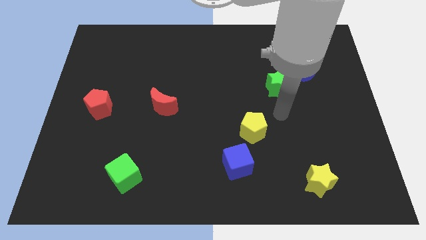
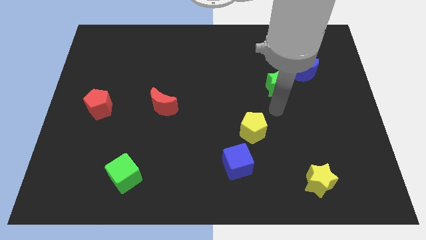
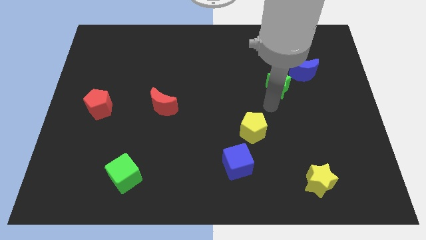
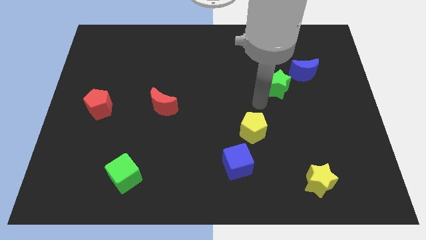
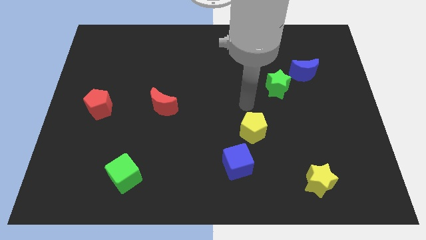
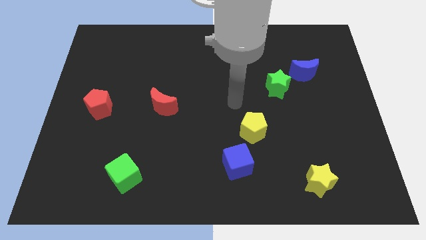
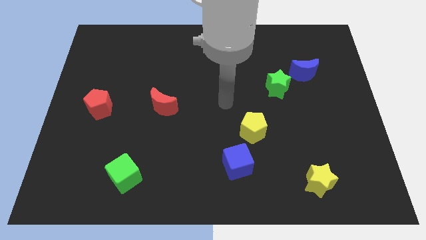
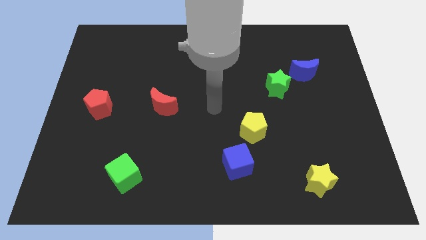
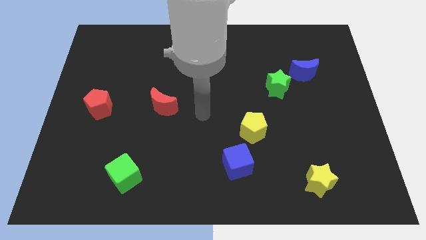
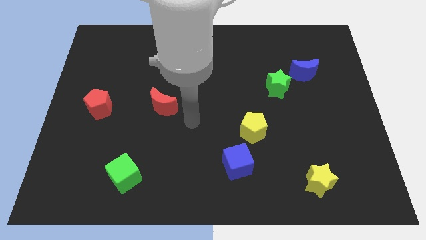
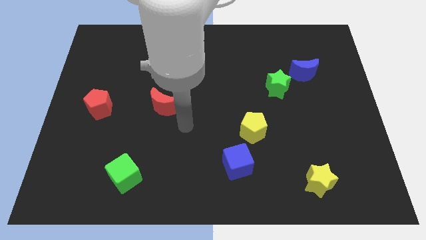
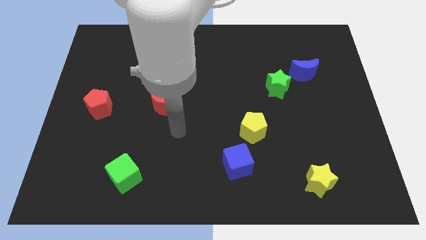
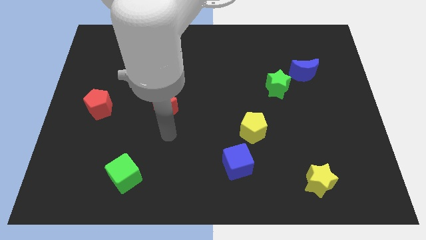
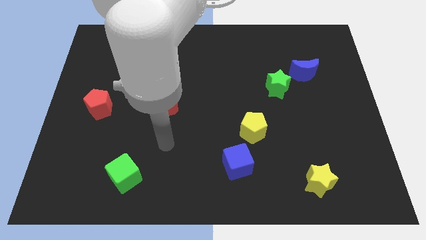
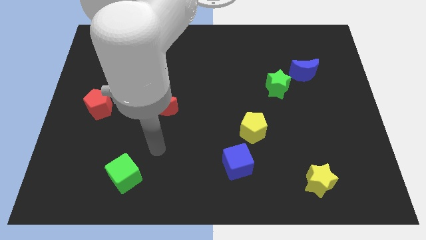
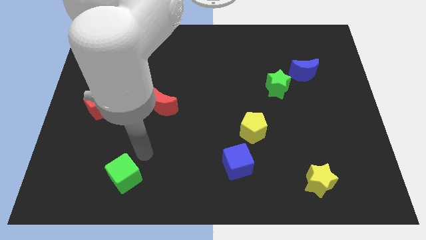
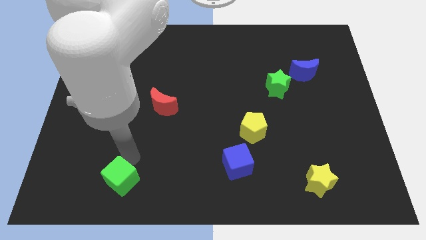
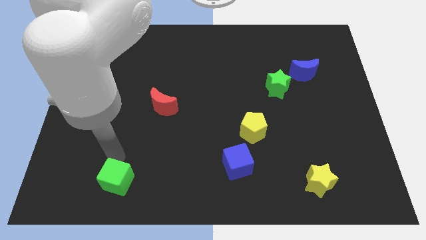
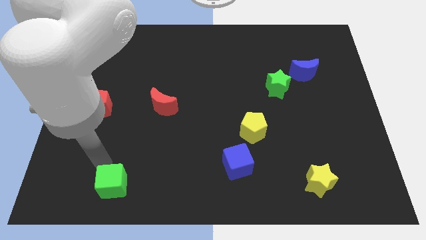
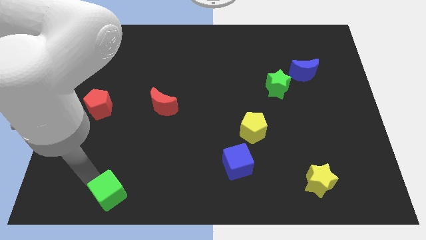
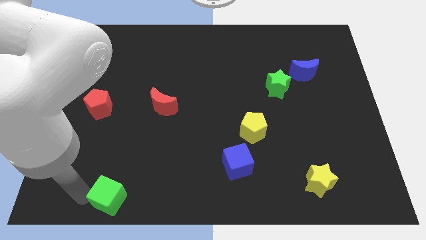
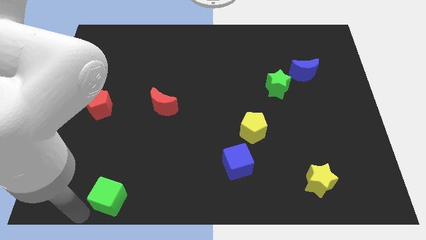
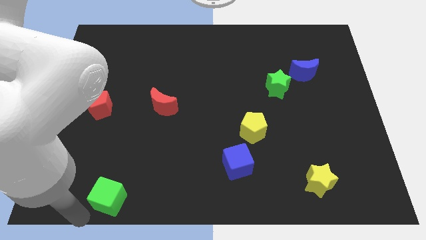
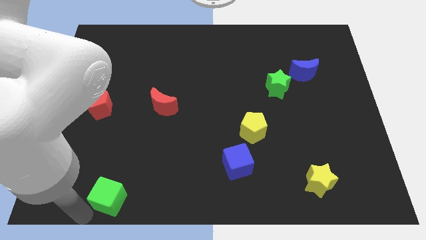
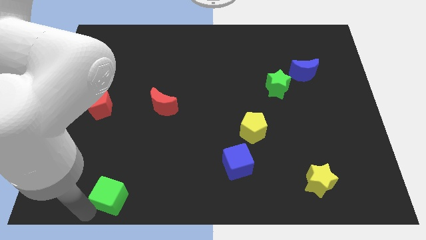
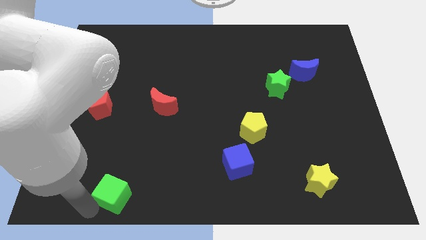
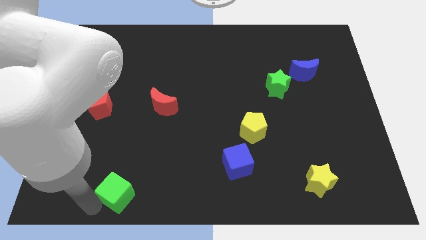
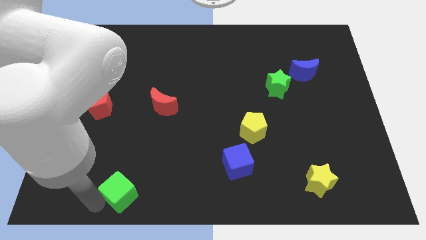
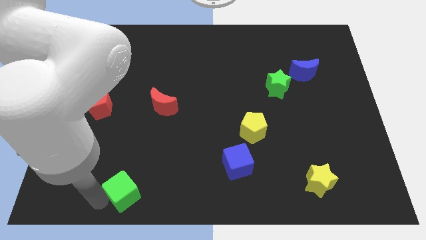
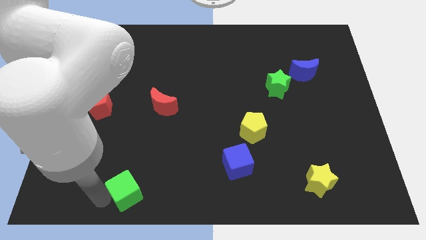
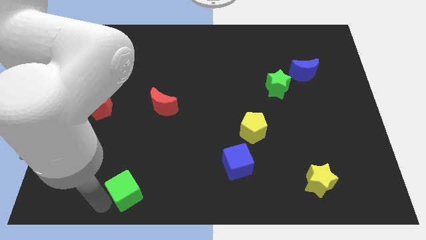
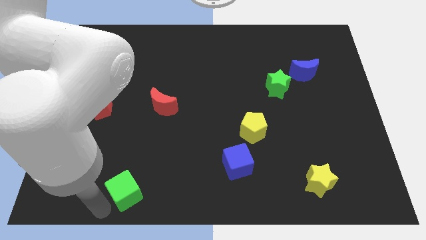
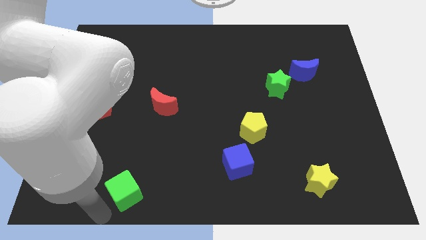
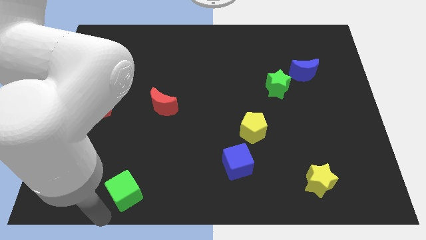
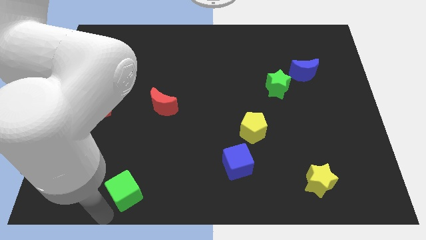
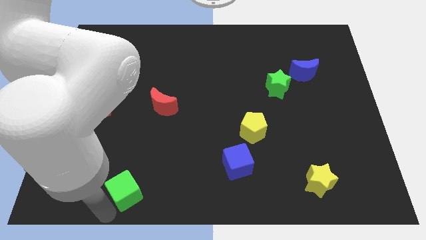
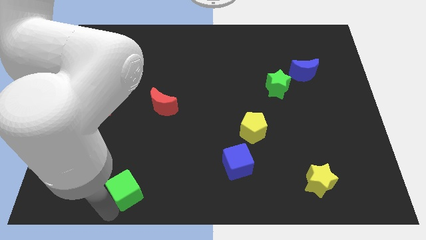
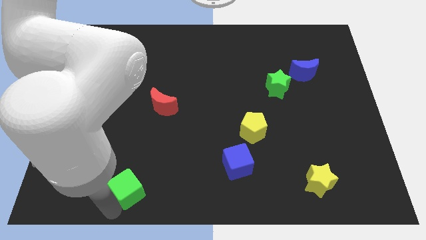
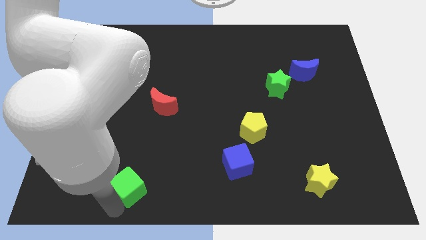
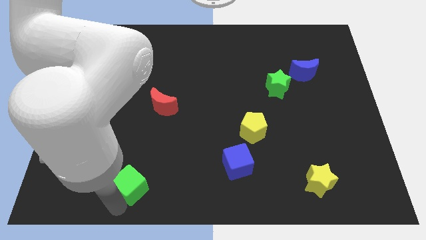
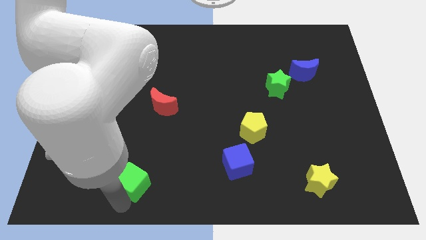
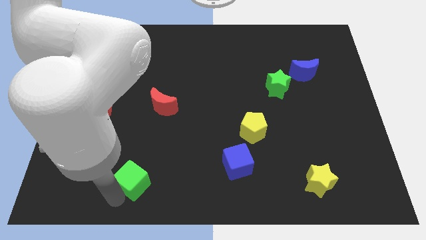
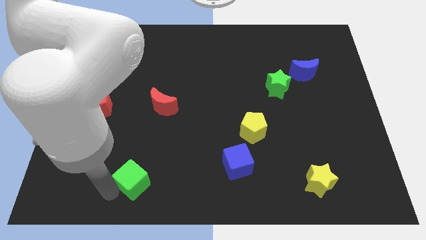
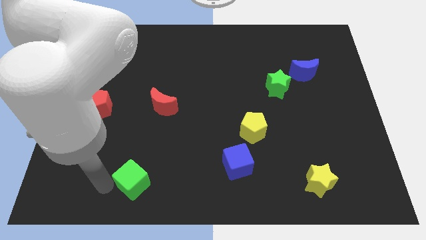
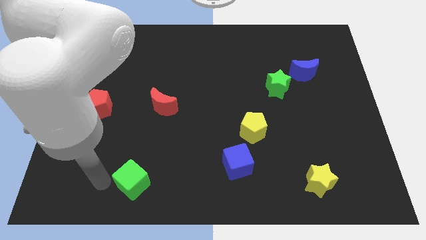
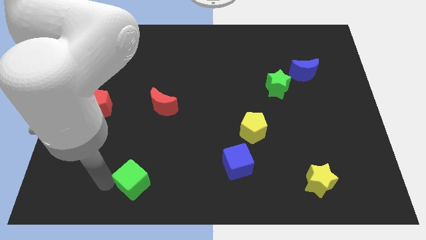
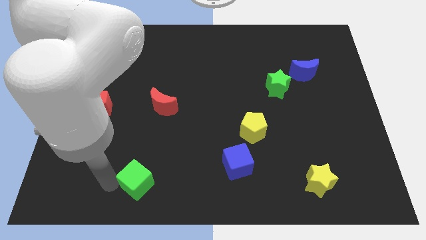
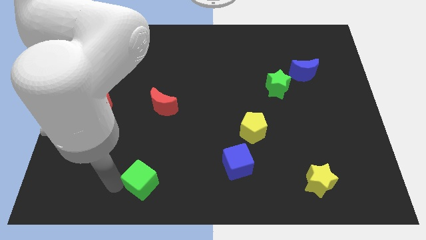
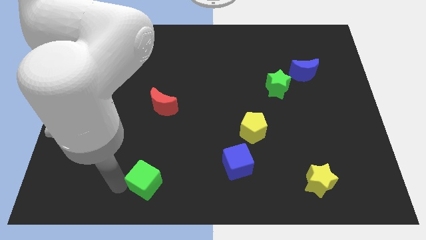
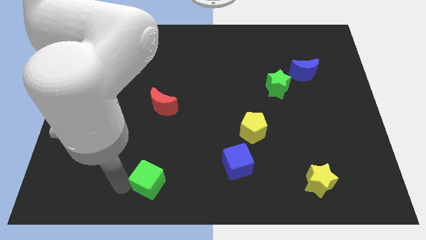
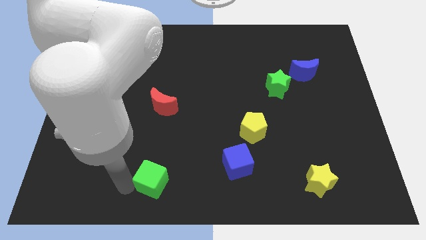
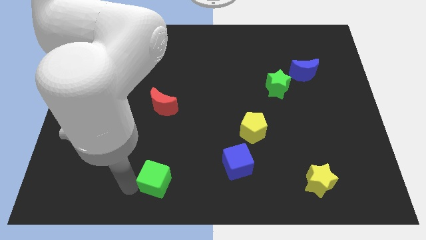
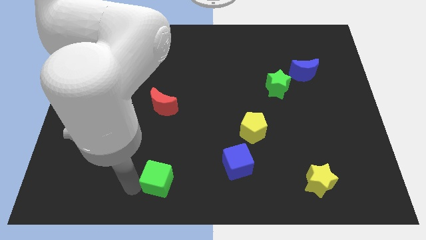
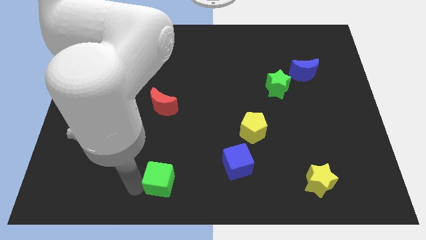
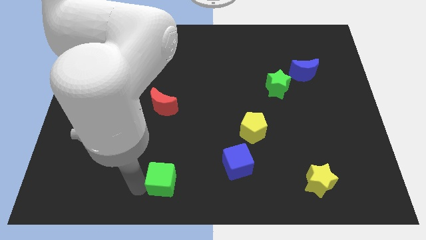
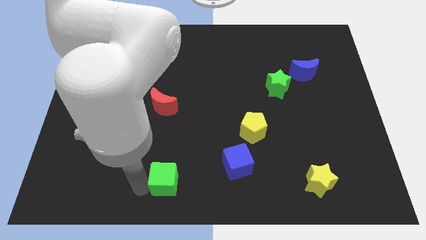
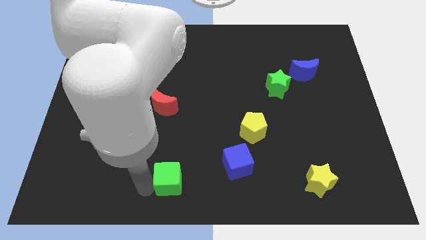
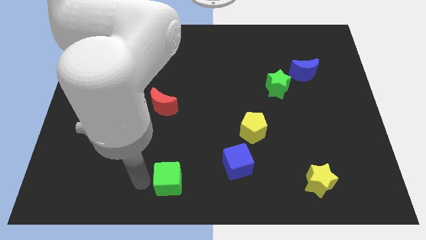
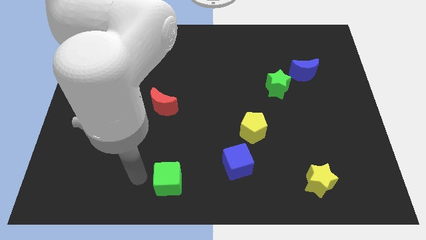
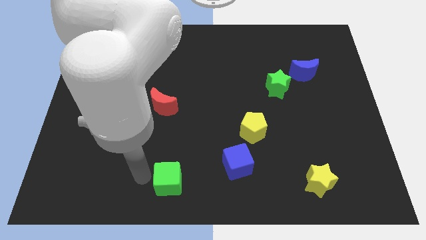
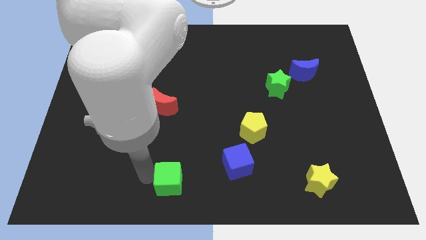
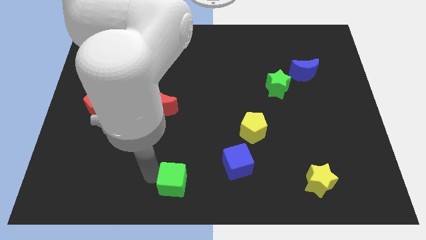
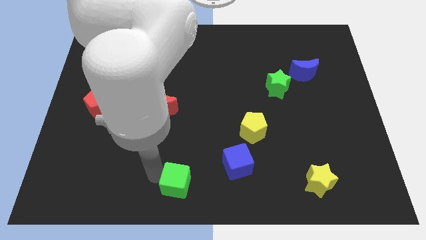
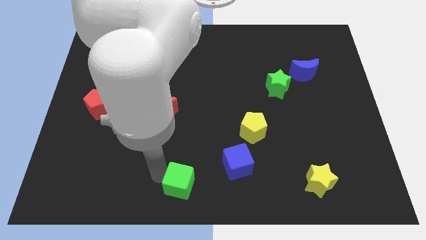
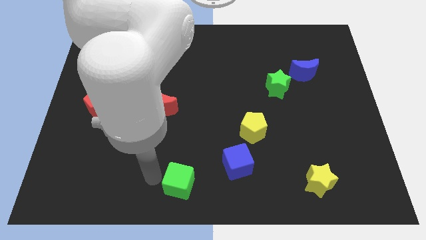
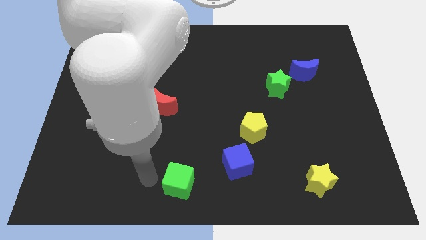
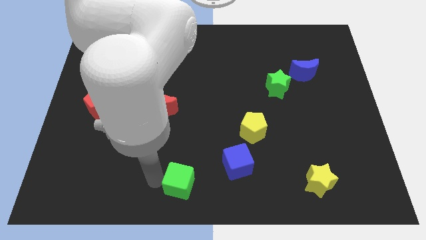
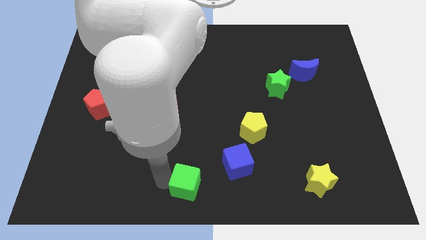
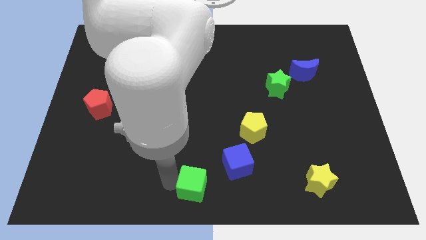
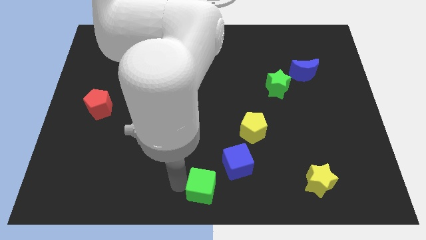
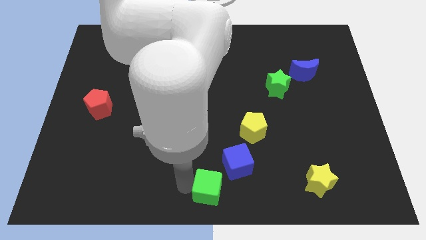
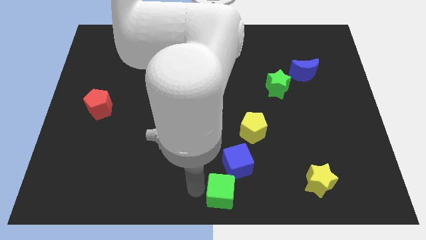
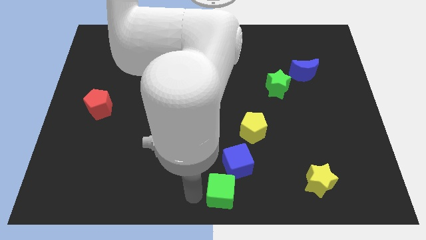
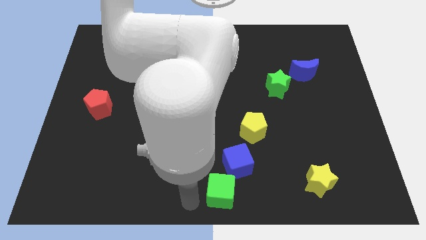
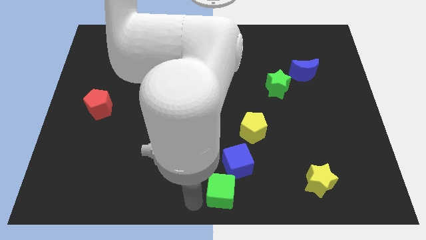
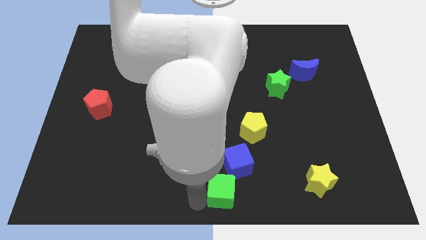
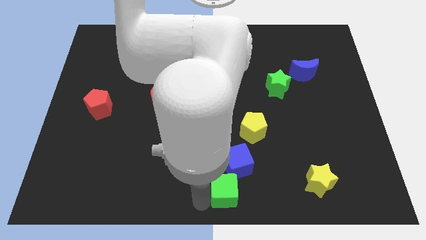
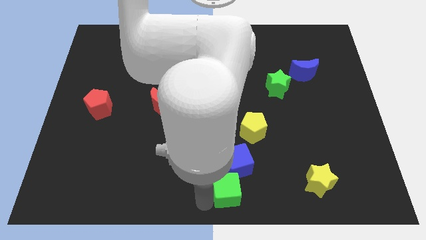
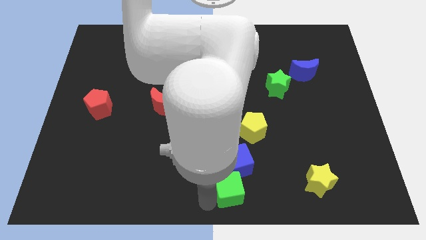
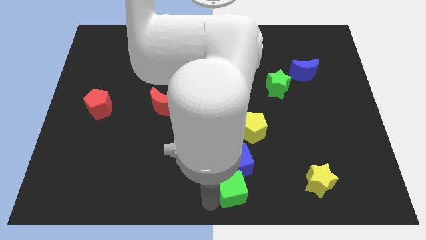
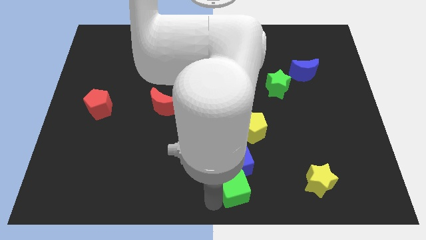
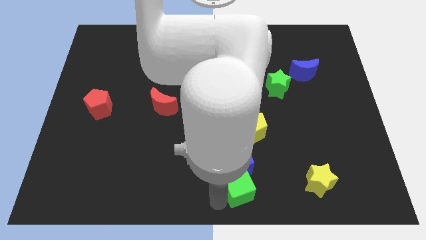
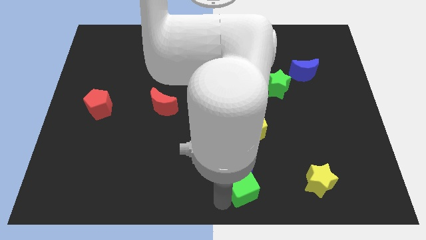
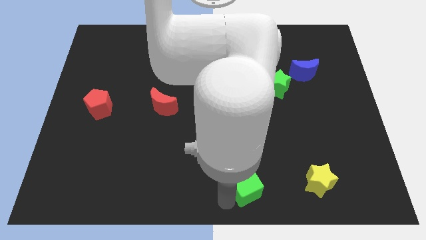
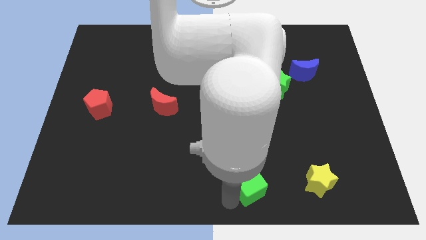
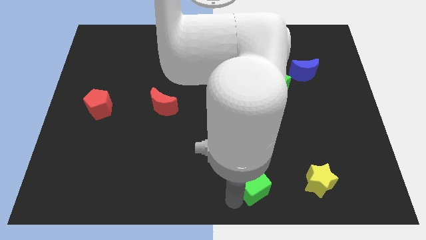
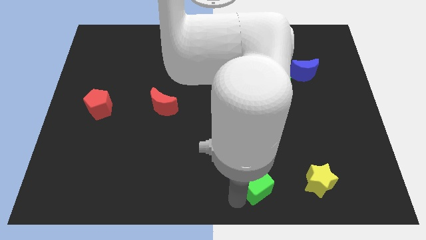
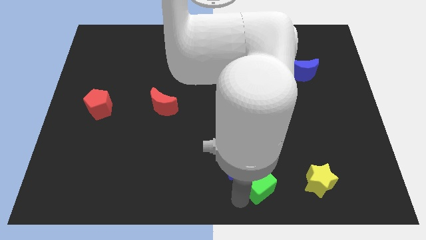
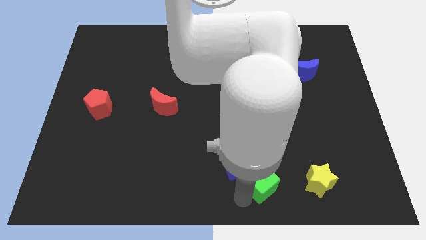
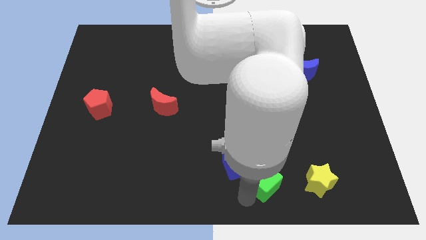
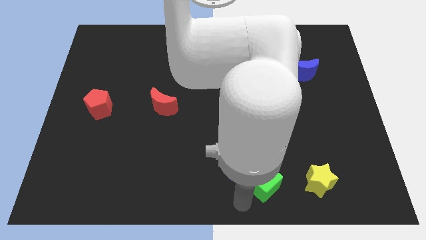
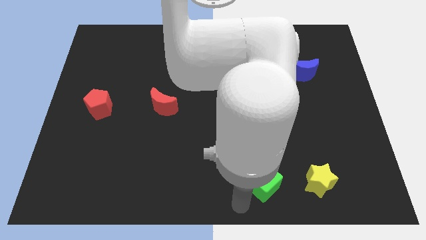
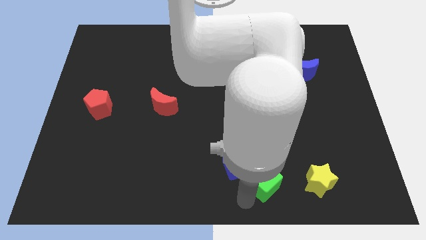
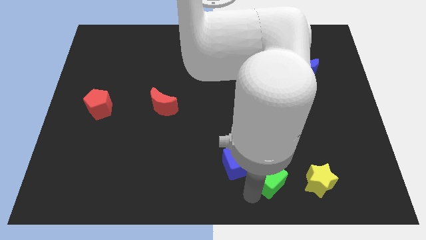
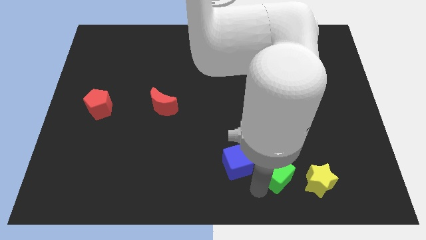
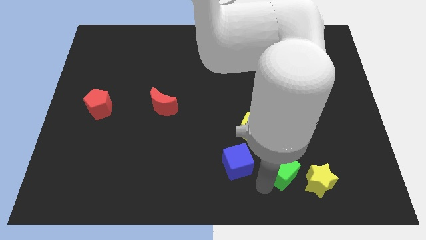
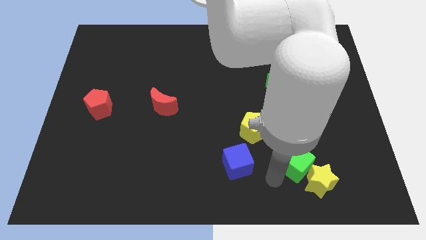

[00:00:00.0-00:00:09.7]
slide the green cube to the top side of the yellow star
